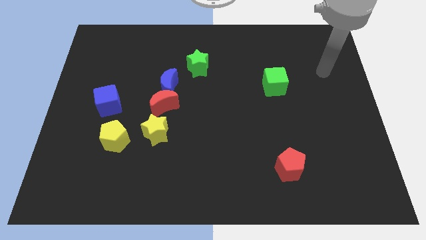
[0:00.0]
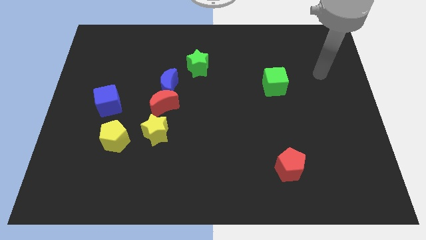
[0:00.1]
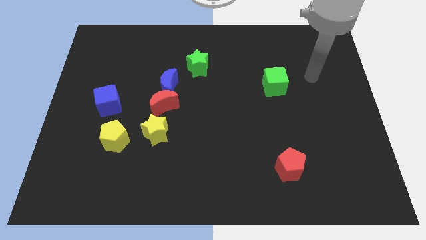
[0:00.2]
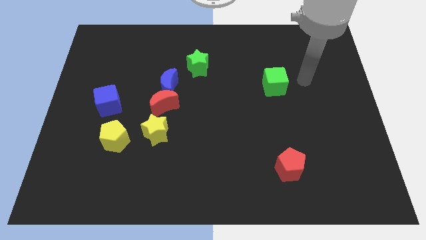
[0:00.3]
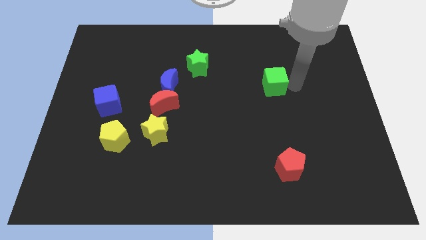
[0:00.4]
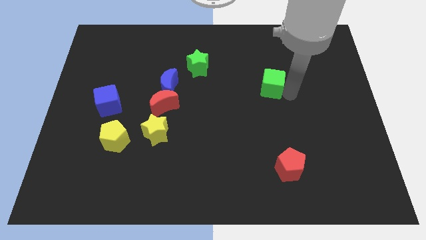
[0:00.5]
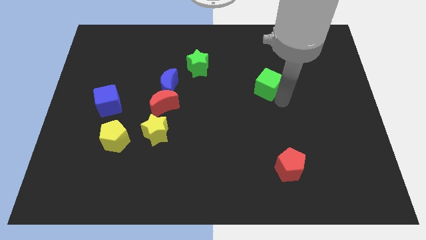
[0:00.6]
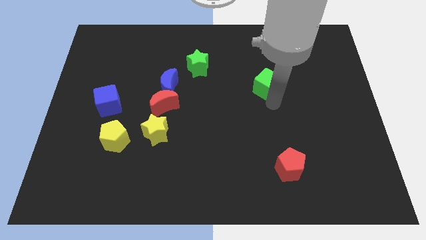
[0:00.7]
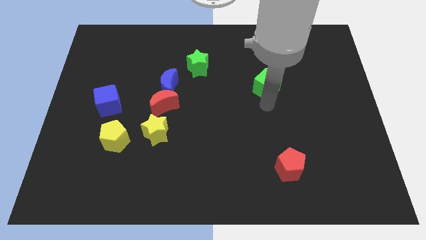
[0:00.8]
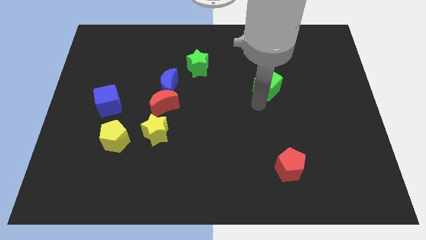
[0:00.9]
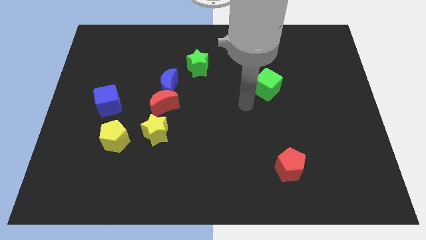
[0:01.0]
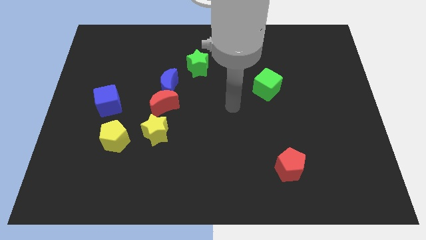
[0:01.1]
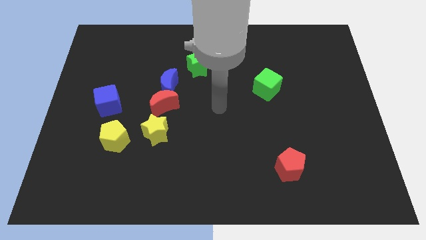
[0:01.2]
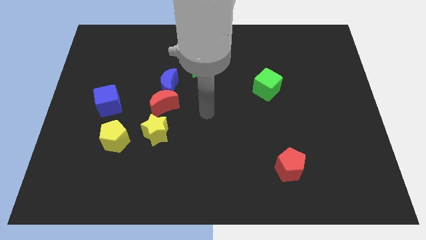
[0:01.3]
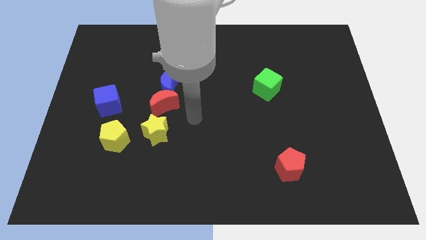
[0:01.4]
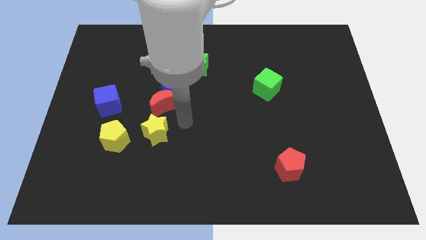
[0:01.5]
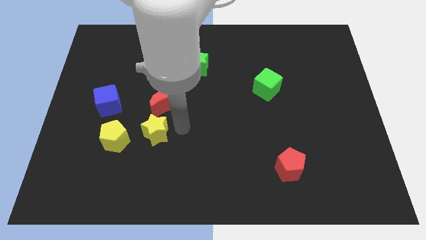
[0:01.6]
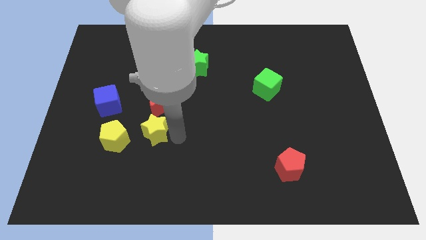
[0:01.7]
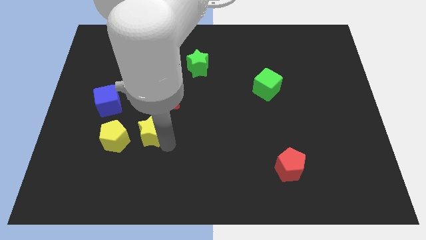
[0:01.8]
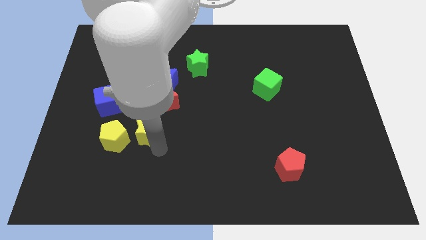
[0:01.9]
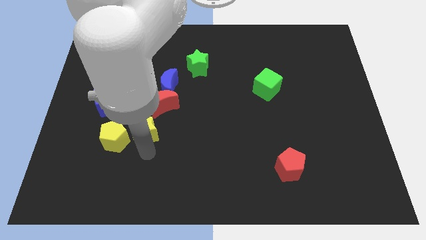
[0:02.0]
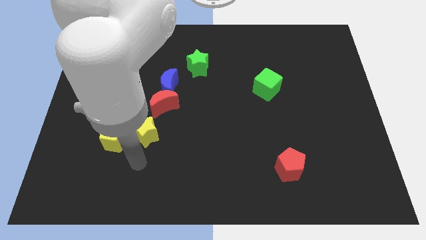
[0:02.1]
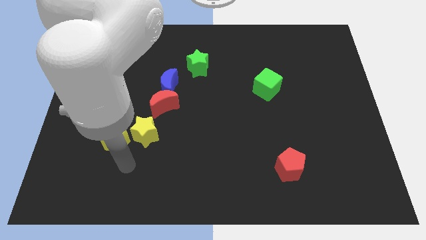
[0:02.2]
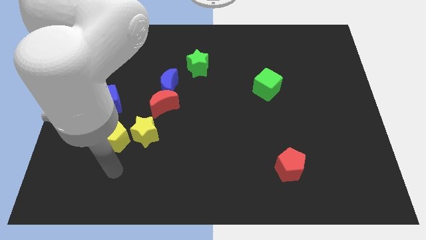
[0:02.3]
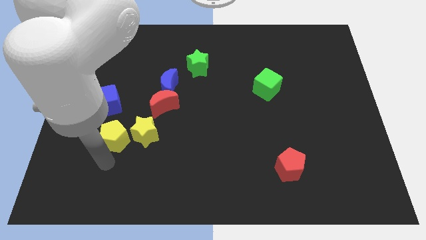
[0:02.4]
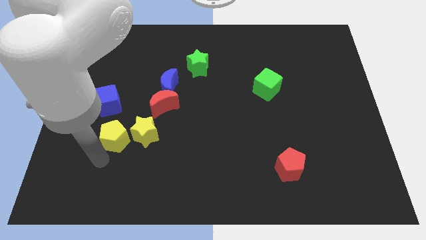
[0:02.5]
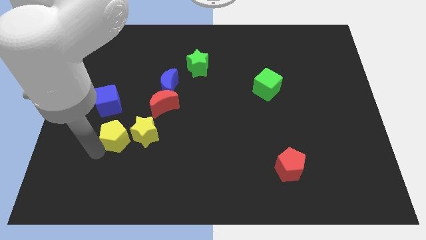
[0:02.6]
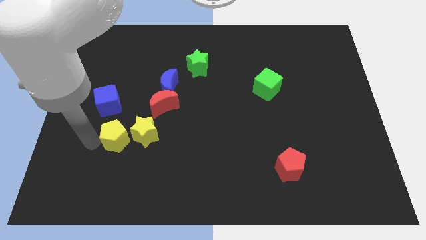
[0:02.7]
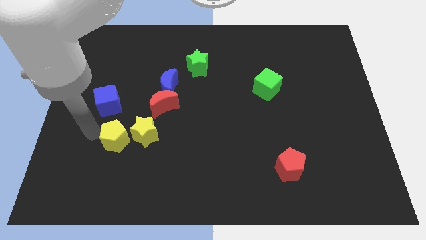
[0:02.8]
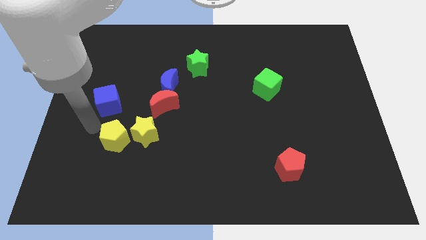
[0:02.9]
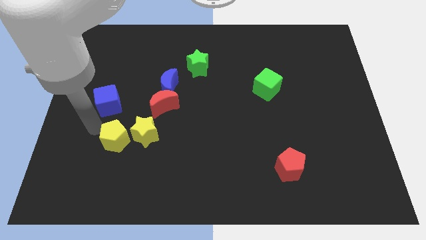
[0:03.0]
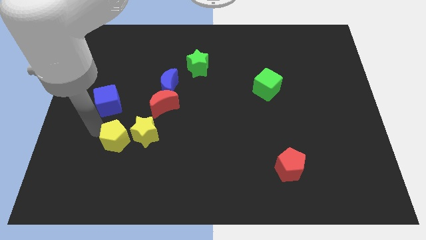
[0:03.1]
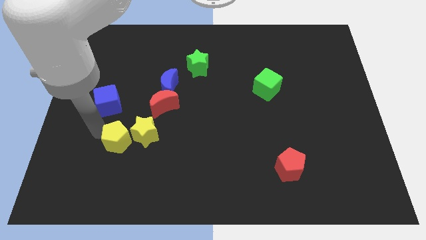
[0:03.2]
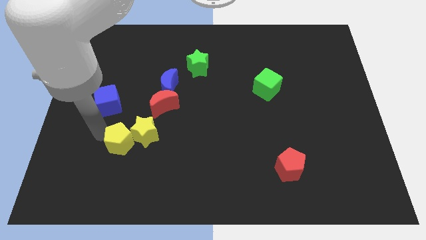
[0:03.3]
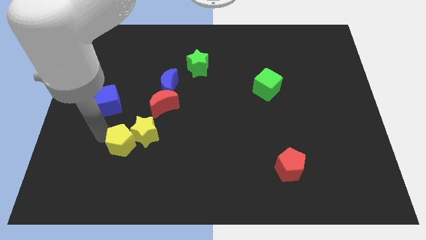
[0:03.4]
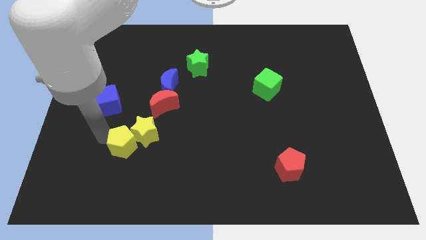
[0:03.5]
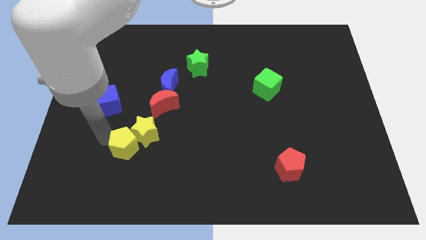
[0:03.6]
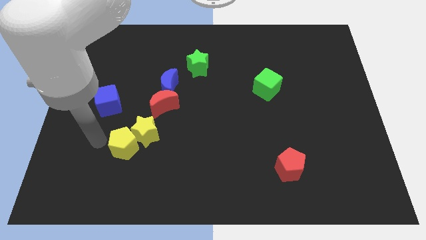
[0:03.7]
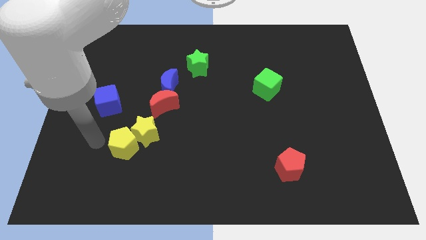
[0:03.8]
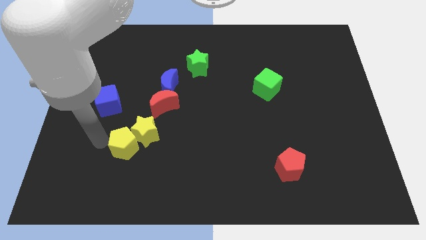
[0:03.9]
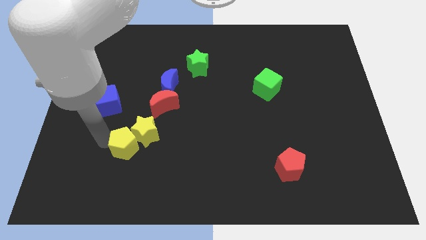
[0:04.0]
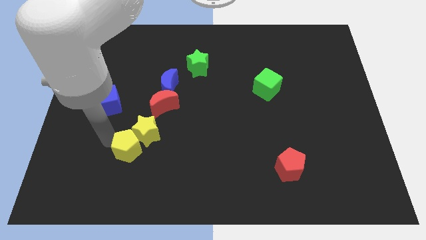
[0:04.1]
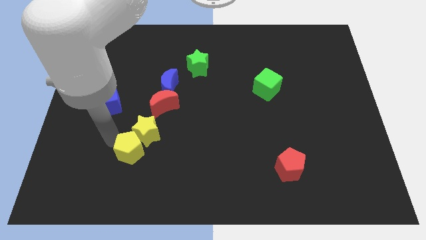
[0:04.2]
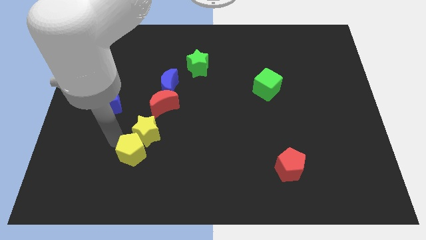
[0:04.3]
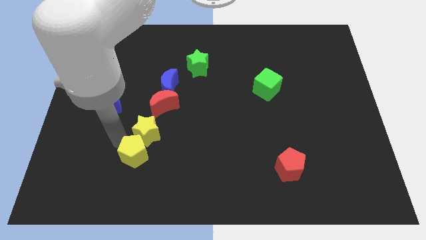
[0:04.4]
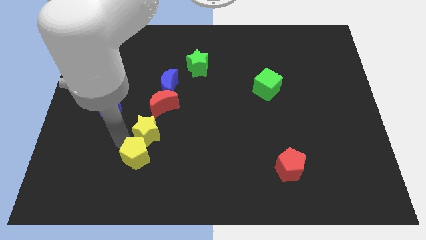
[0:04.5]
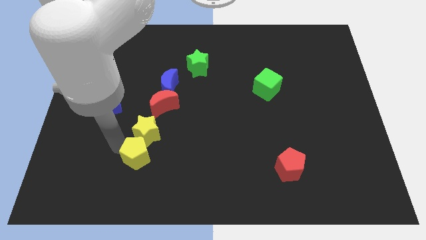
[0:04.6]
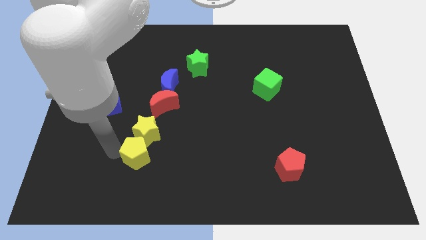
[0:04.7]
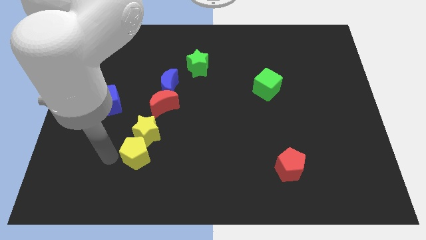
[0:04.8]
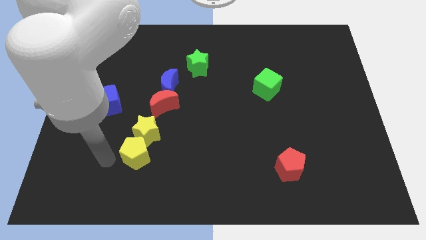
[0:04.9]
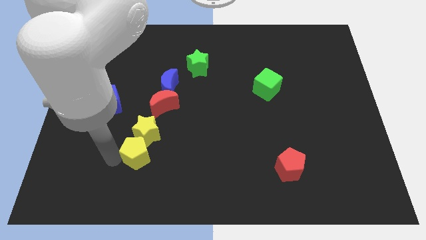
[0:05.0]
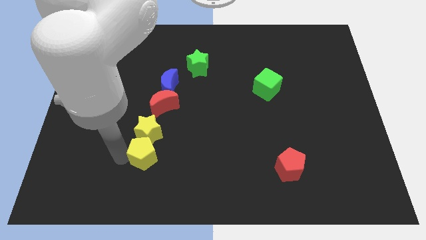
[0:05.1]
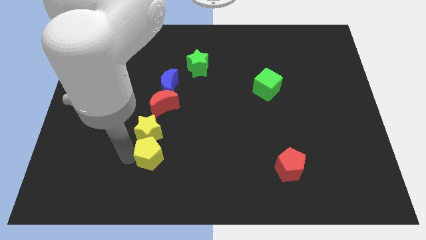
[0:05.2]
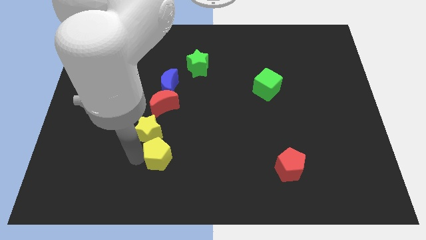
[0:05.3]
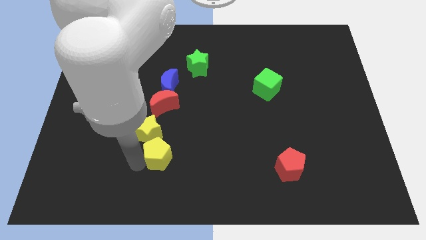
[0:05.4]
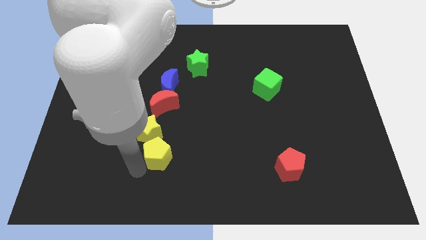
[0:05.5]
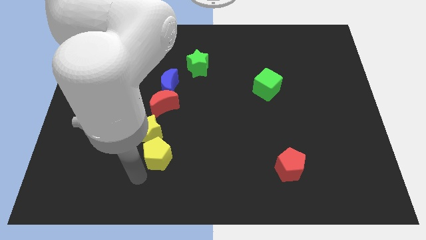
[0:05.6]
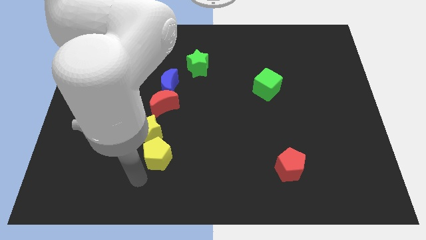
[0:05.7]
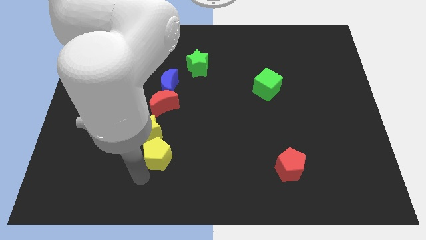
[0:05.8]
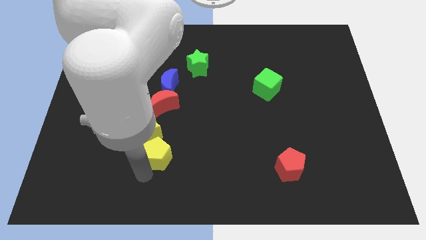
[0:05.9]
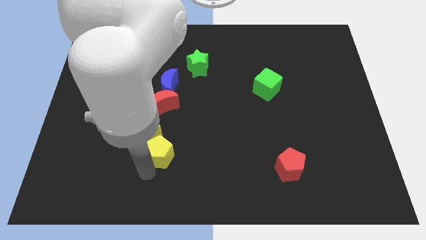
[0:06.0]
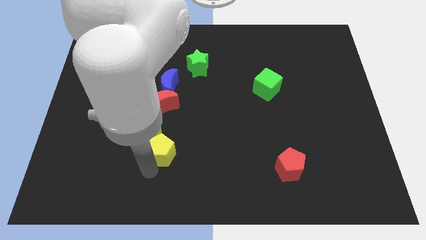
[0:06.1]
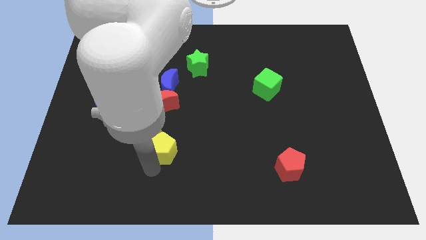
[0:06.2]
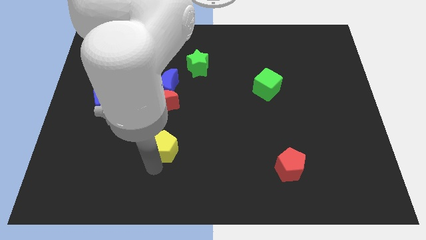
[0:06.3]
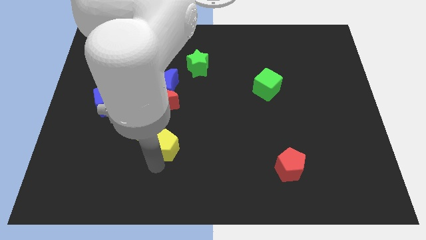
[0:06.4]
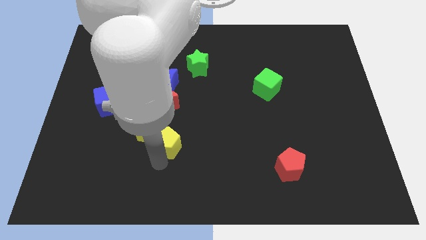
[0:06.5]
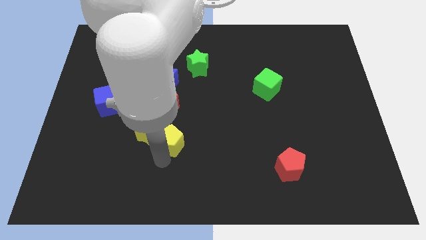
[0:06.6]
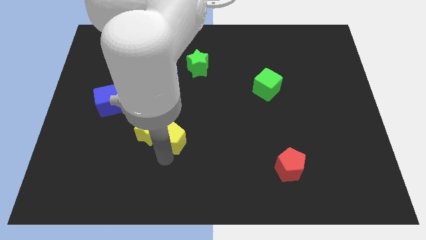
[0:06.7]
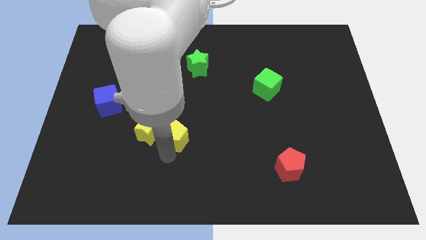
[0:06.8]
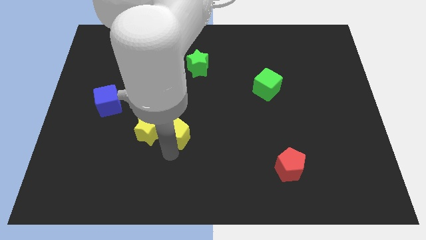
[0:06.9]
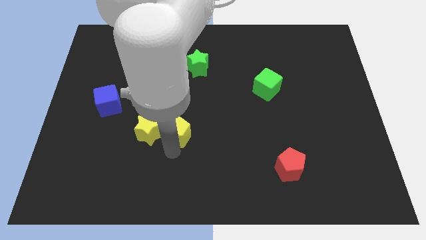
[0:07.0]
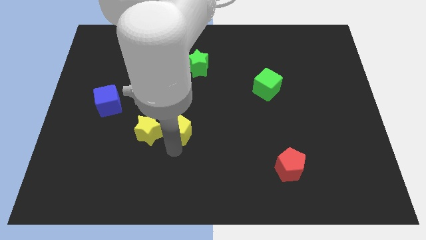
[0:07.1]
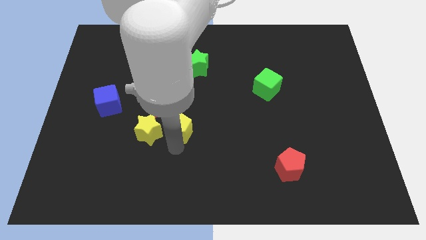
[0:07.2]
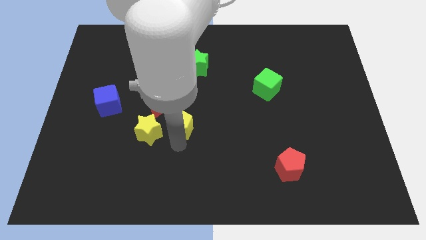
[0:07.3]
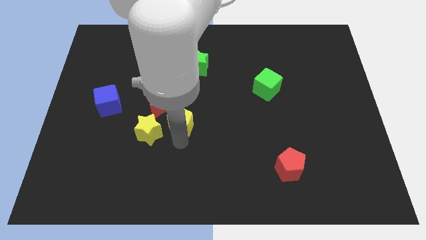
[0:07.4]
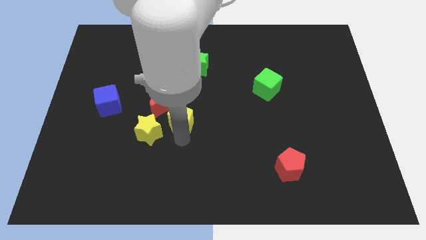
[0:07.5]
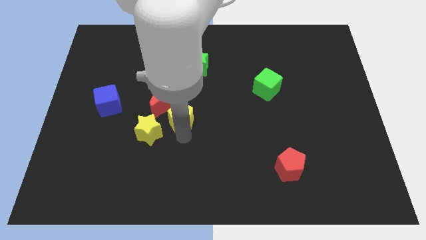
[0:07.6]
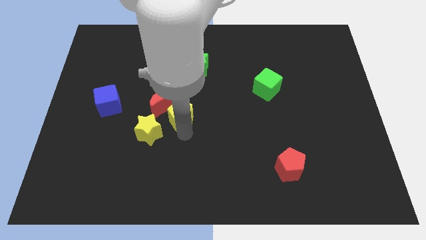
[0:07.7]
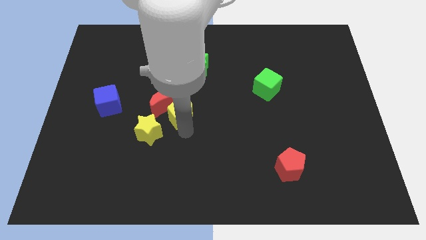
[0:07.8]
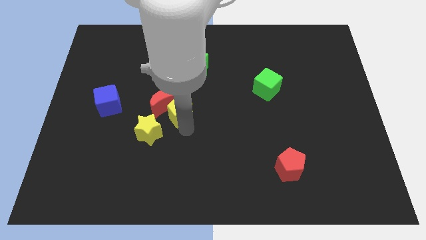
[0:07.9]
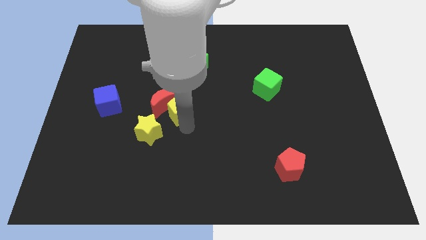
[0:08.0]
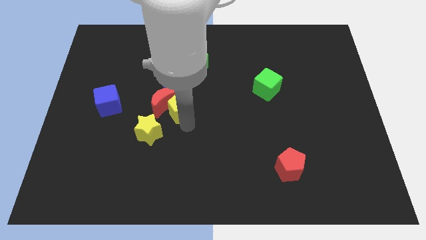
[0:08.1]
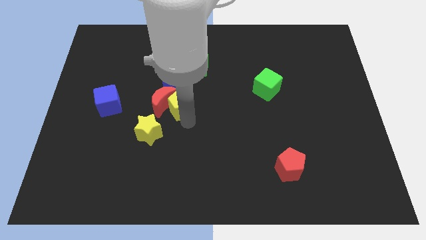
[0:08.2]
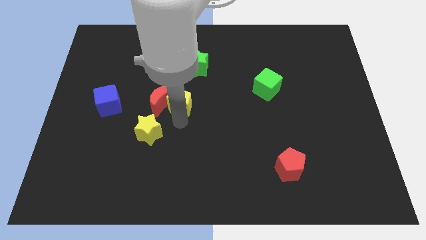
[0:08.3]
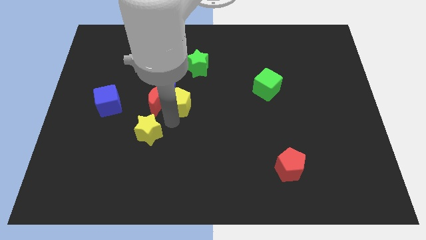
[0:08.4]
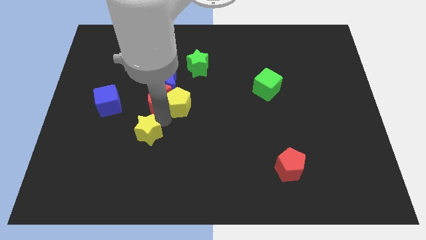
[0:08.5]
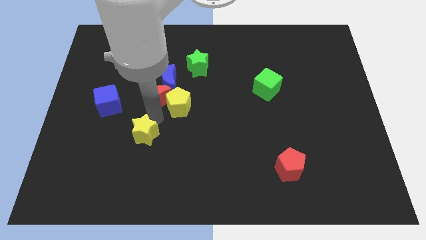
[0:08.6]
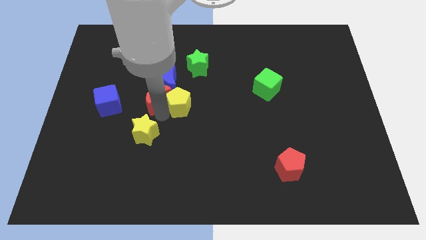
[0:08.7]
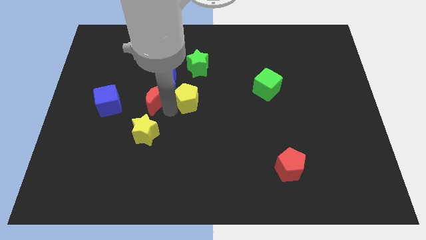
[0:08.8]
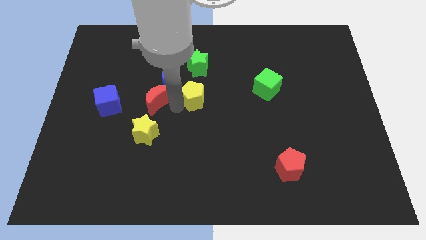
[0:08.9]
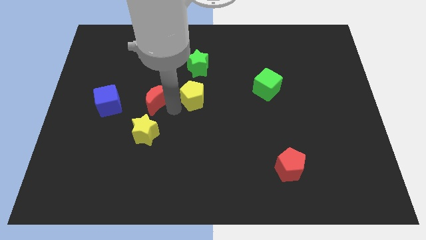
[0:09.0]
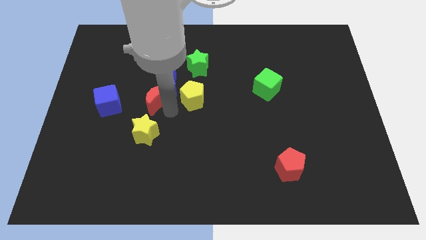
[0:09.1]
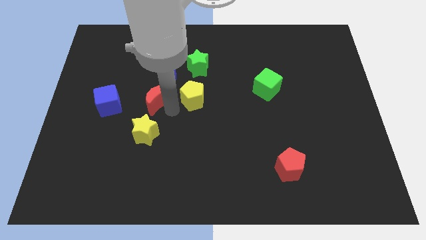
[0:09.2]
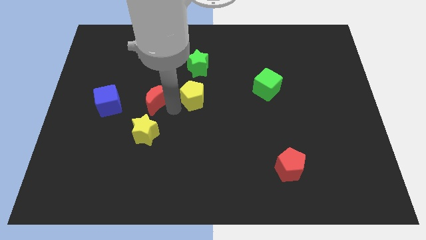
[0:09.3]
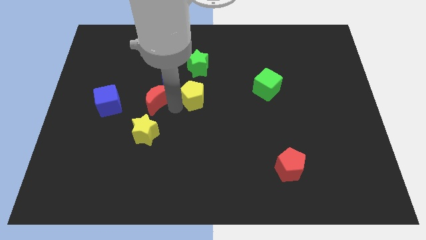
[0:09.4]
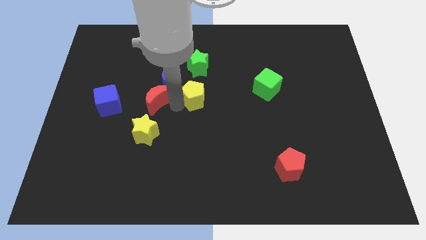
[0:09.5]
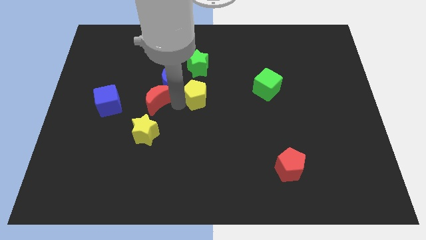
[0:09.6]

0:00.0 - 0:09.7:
push the yellow pentagon upwards and to the right diagonally
